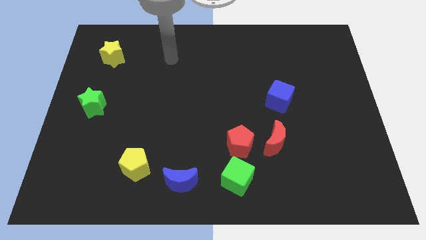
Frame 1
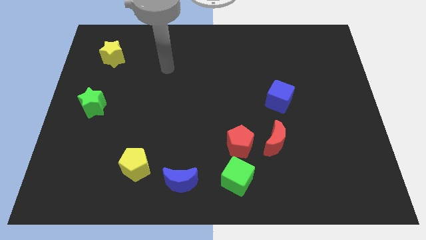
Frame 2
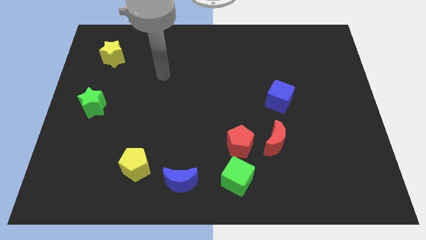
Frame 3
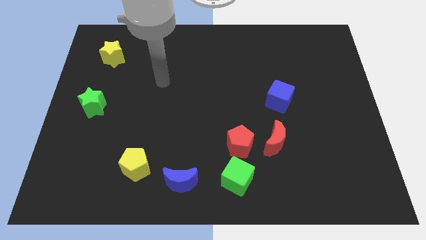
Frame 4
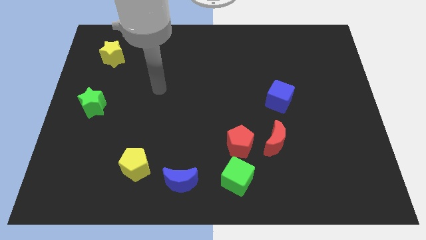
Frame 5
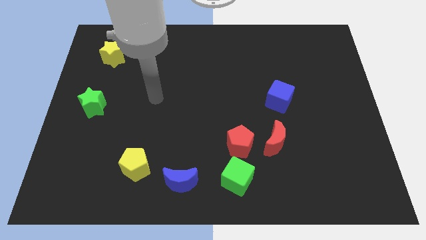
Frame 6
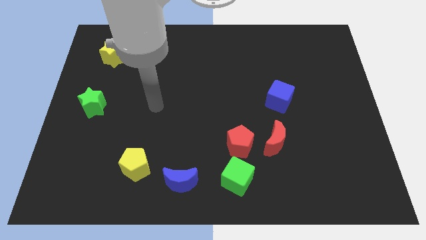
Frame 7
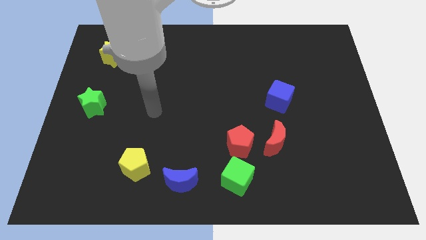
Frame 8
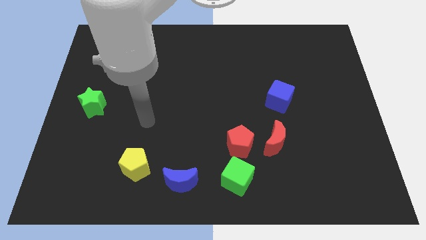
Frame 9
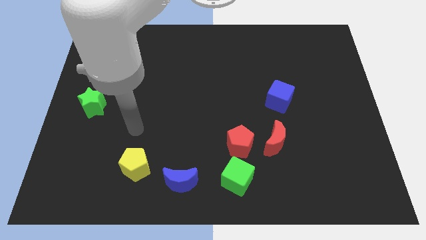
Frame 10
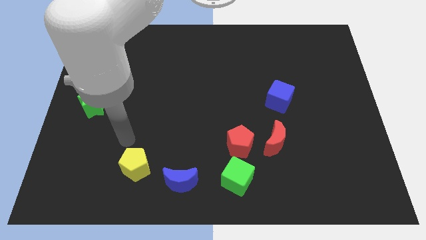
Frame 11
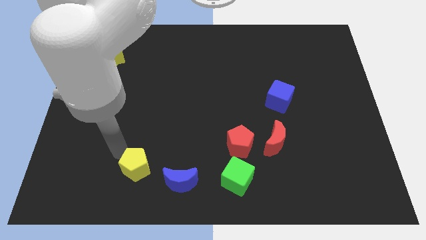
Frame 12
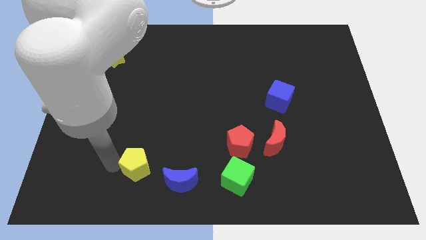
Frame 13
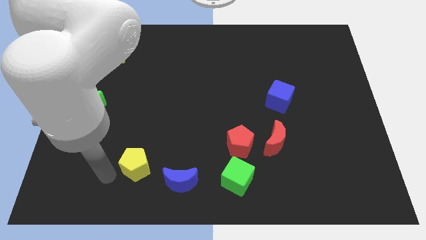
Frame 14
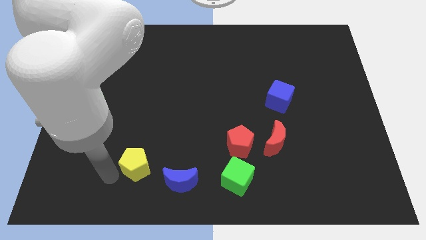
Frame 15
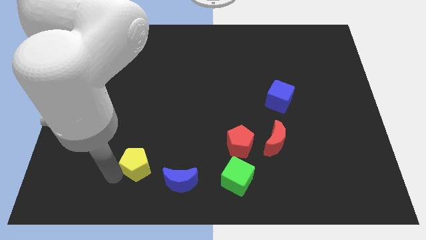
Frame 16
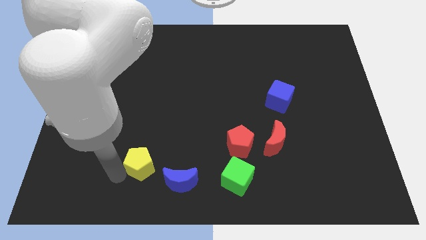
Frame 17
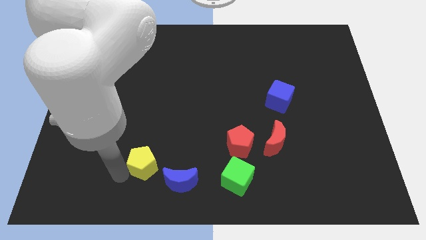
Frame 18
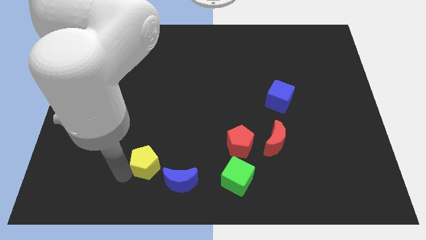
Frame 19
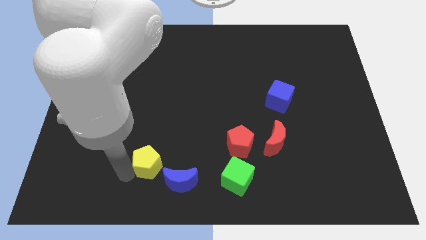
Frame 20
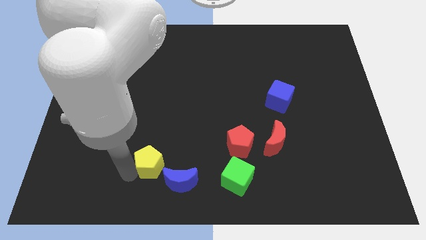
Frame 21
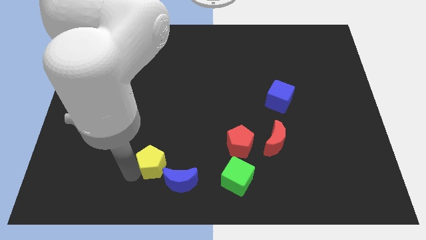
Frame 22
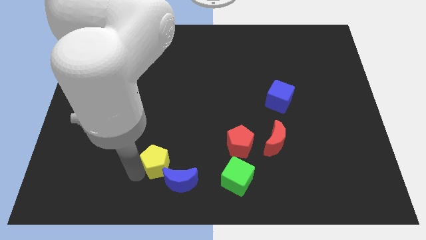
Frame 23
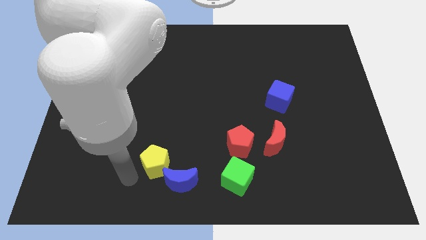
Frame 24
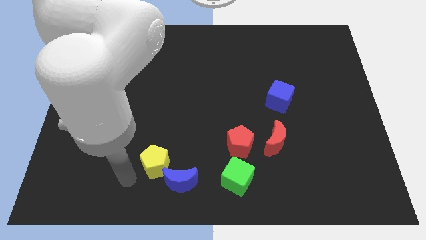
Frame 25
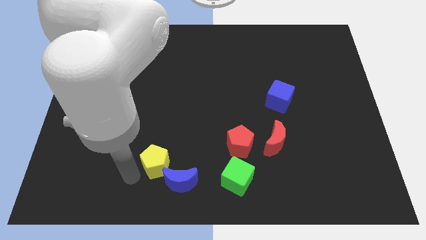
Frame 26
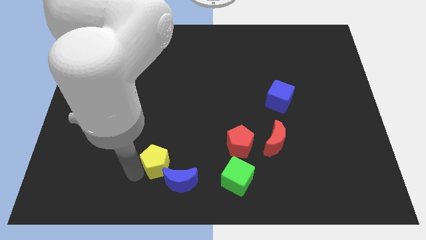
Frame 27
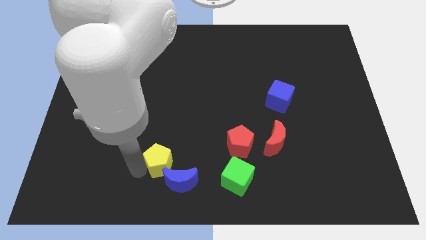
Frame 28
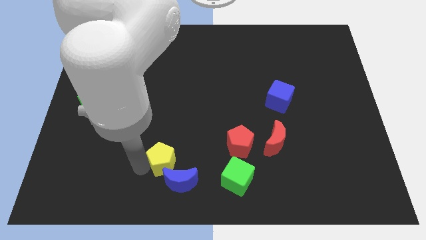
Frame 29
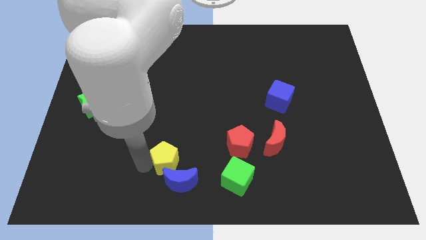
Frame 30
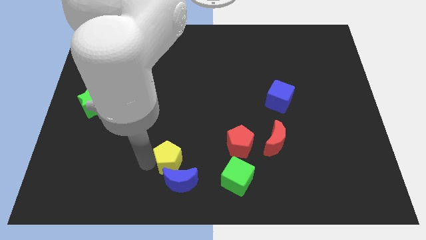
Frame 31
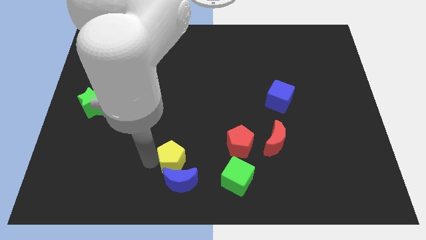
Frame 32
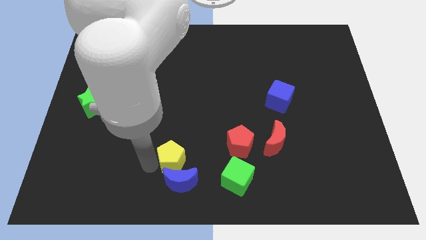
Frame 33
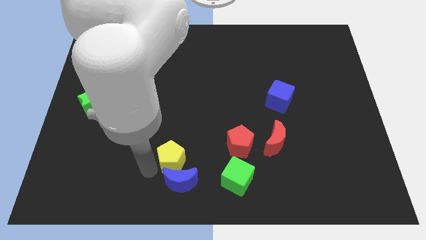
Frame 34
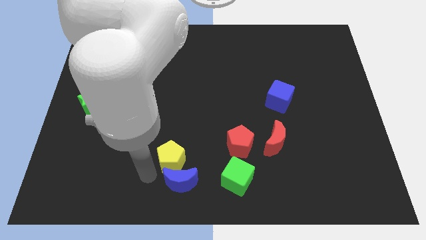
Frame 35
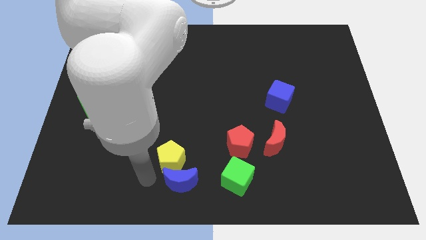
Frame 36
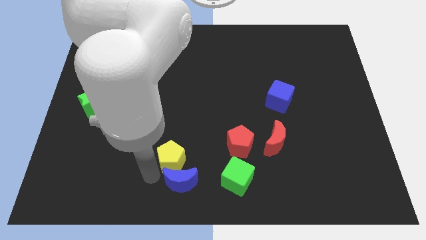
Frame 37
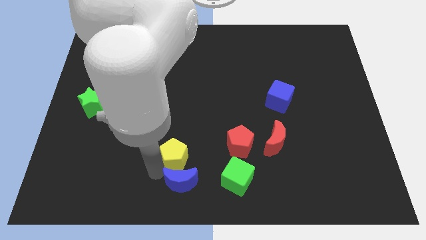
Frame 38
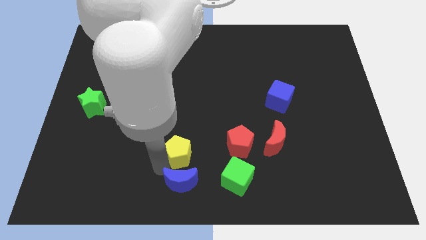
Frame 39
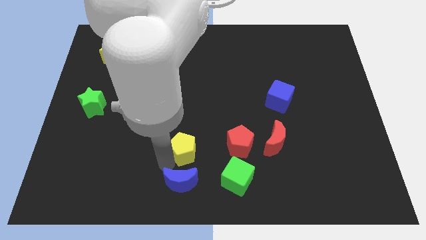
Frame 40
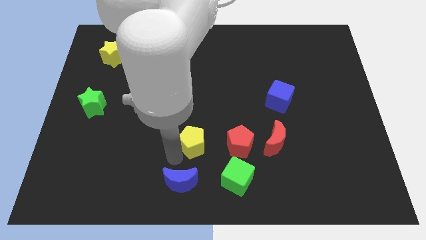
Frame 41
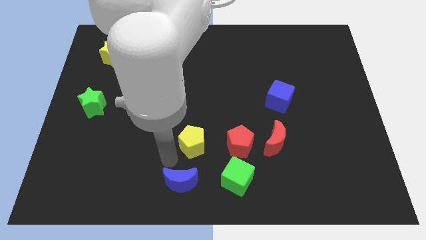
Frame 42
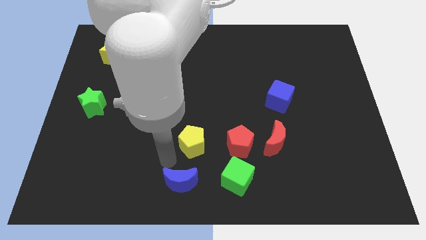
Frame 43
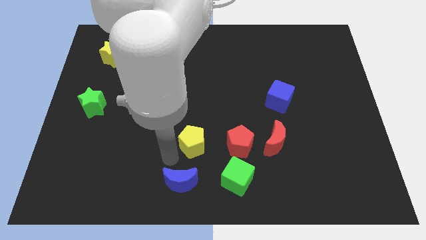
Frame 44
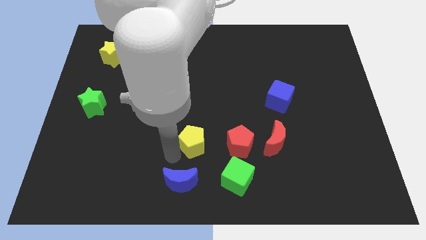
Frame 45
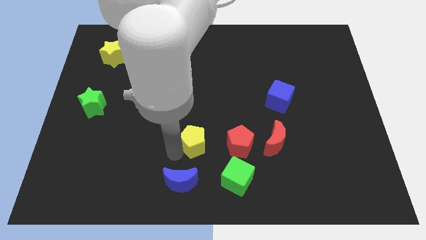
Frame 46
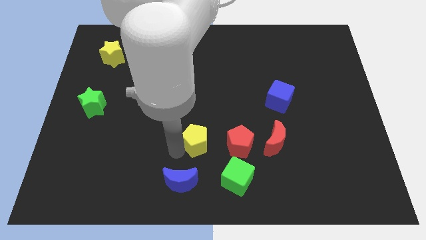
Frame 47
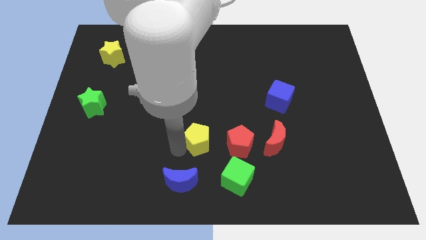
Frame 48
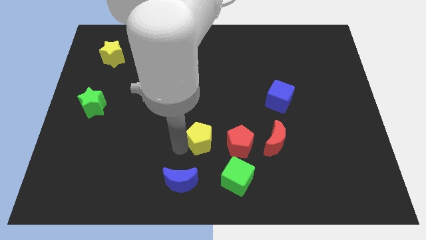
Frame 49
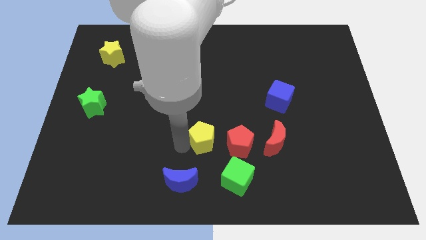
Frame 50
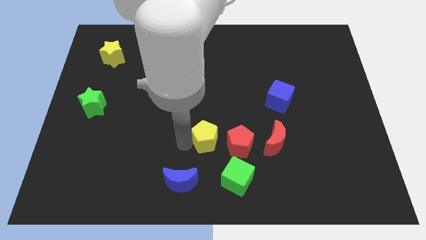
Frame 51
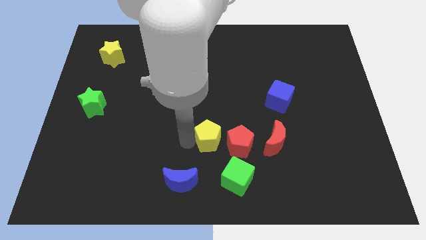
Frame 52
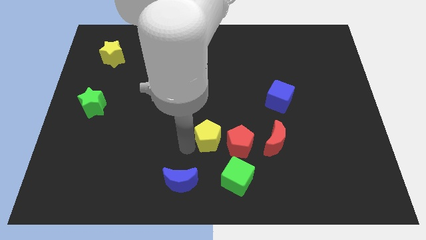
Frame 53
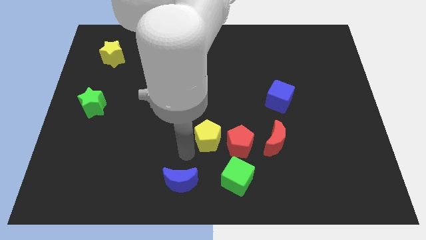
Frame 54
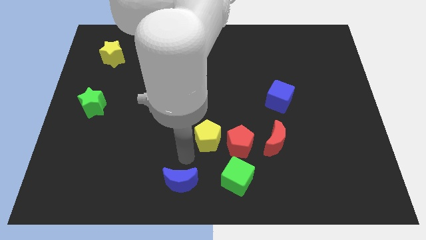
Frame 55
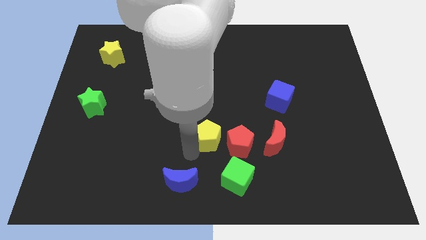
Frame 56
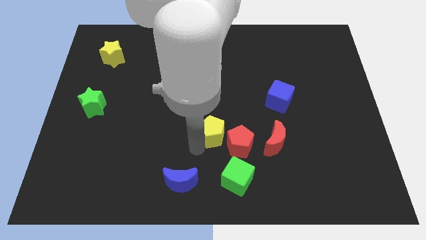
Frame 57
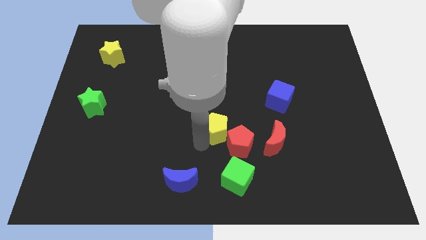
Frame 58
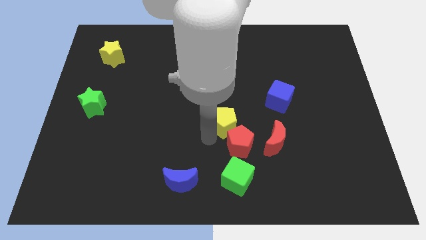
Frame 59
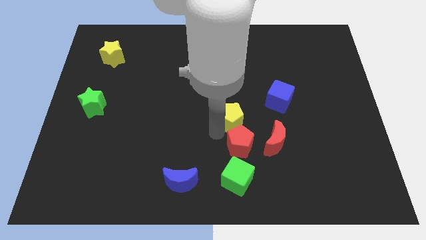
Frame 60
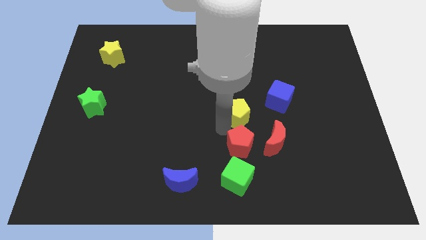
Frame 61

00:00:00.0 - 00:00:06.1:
put the yellow pentagon to the left of the blue cube

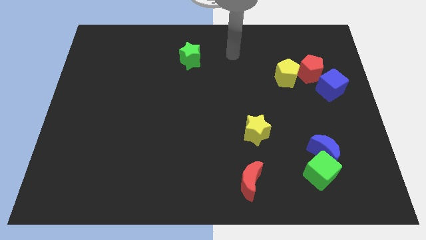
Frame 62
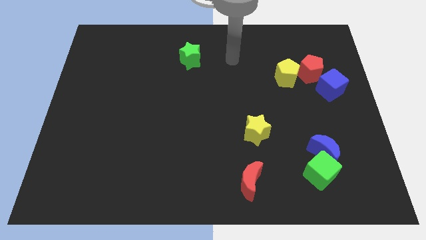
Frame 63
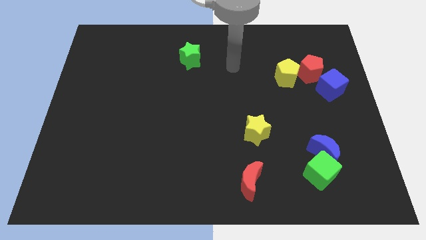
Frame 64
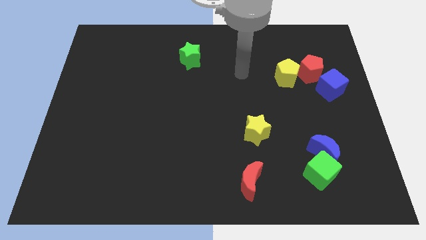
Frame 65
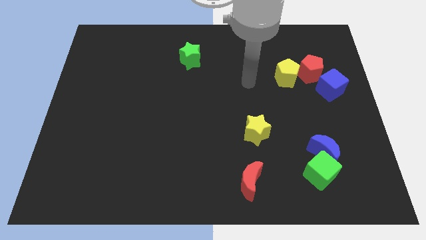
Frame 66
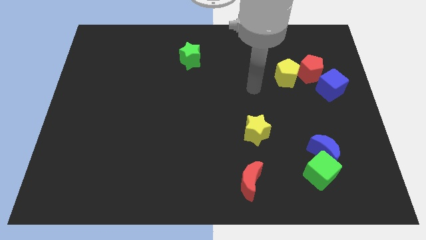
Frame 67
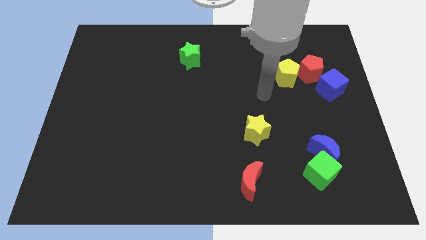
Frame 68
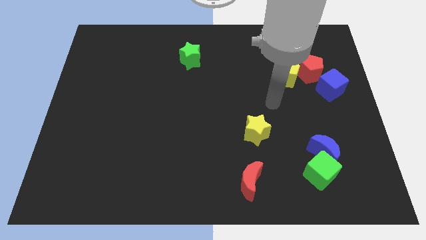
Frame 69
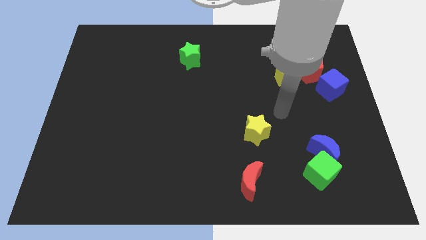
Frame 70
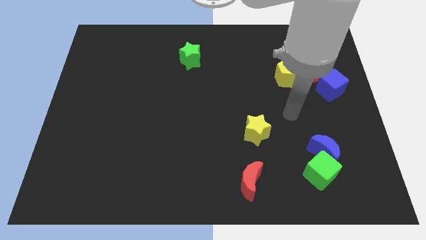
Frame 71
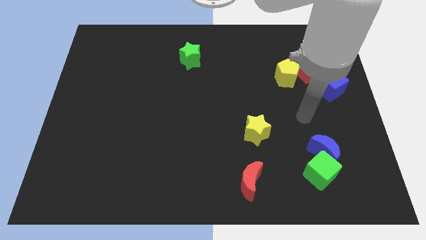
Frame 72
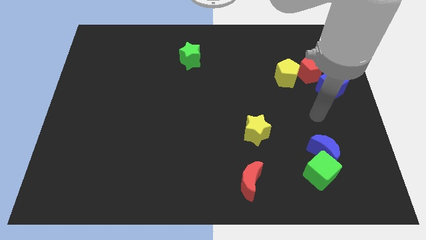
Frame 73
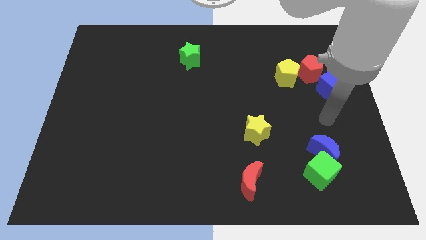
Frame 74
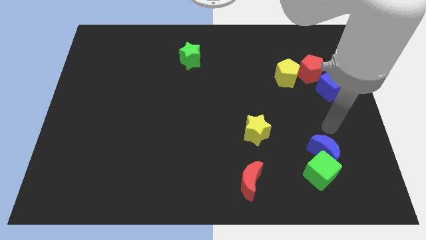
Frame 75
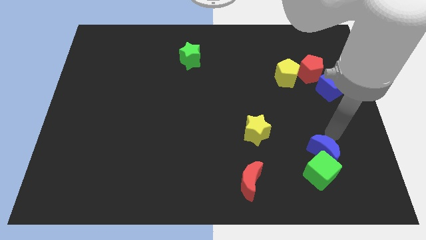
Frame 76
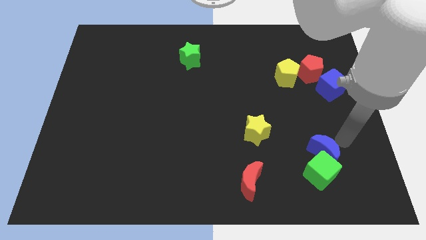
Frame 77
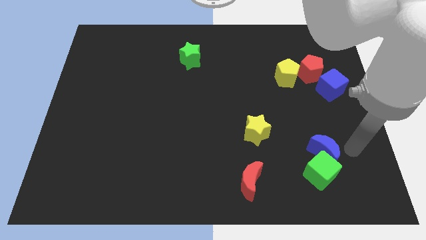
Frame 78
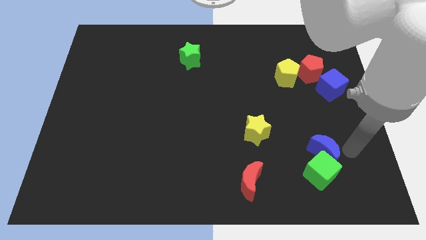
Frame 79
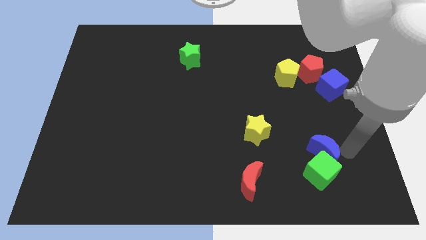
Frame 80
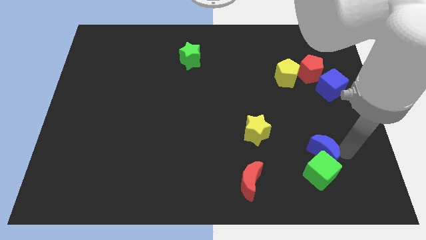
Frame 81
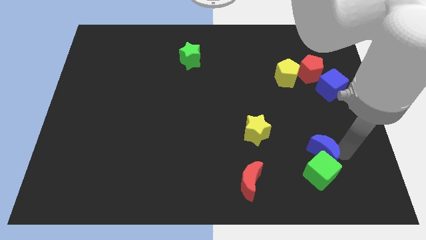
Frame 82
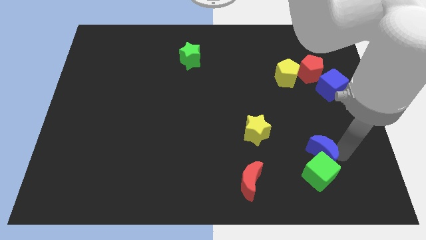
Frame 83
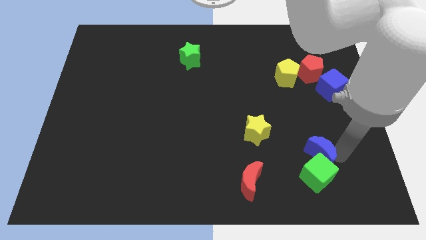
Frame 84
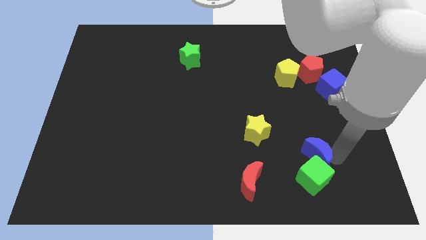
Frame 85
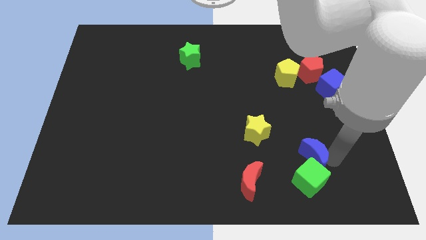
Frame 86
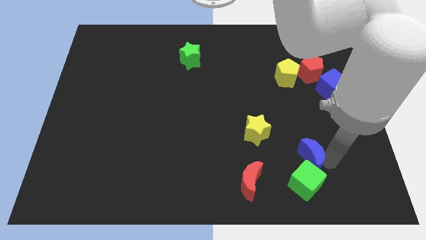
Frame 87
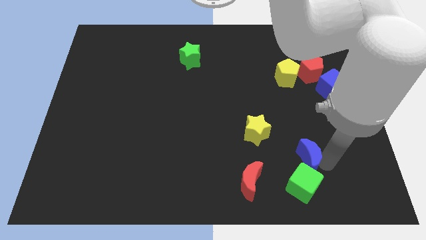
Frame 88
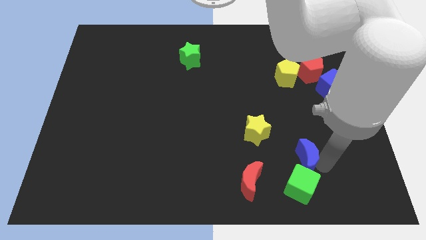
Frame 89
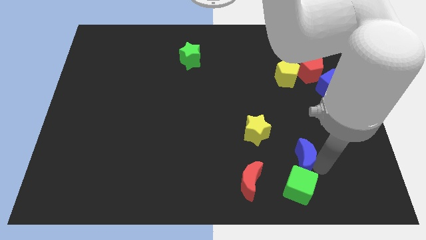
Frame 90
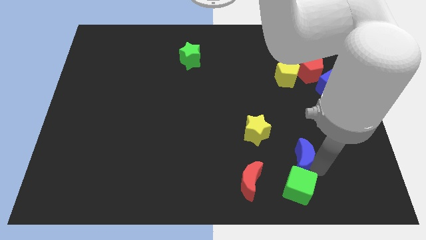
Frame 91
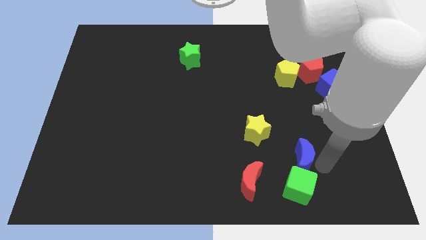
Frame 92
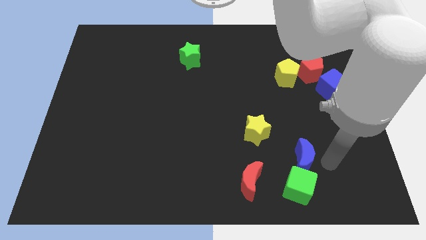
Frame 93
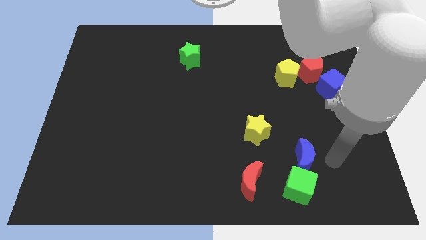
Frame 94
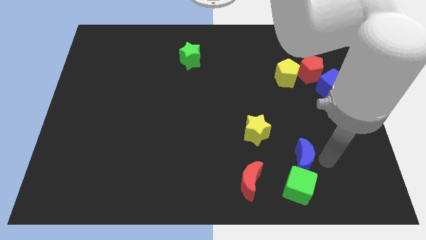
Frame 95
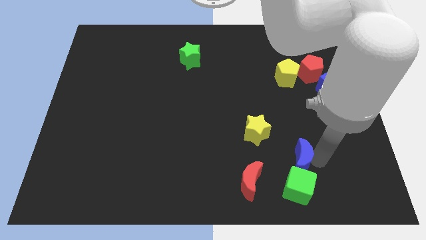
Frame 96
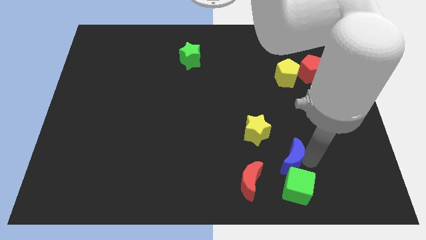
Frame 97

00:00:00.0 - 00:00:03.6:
put the blue moon diagonally up and to the right of the red moon
